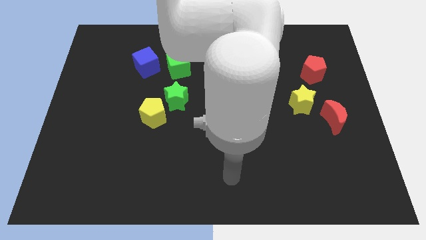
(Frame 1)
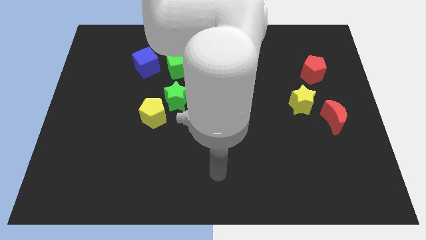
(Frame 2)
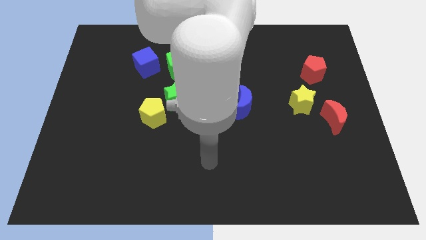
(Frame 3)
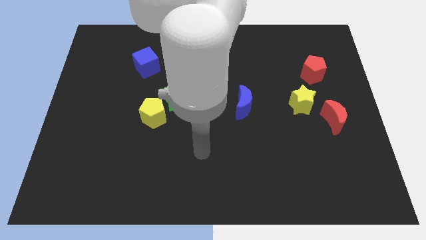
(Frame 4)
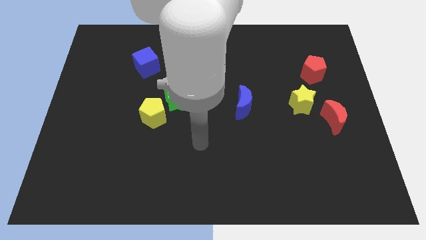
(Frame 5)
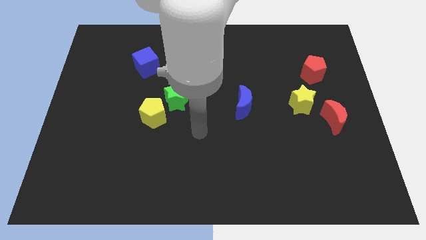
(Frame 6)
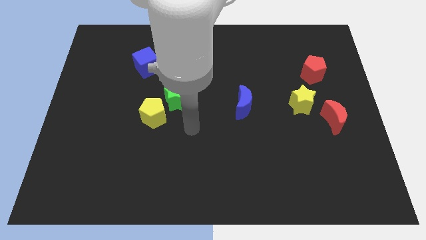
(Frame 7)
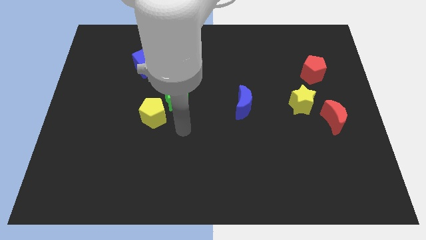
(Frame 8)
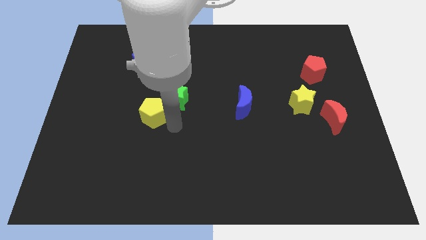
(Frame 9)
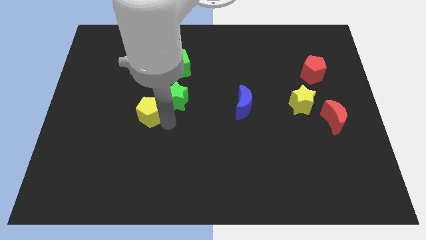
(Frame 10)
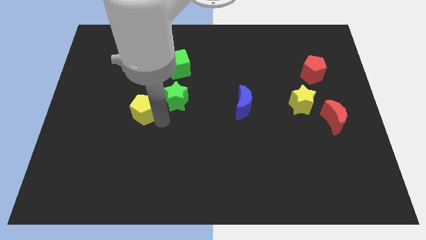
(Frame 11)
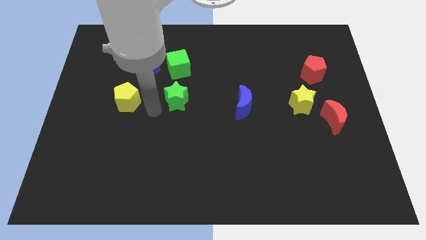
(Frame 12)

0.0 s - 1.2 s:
separate the green star from the yellow pentagon

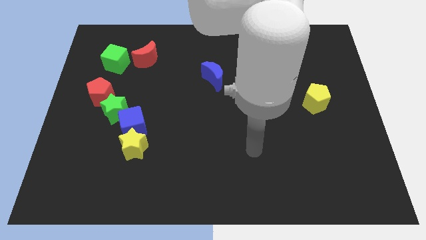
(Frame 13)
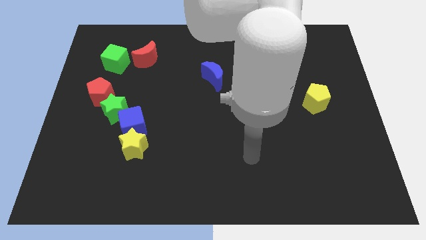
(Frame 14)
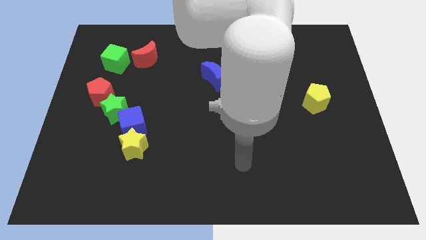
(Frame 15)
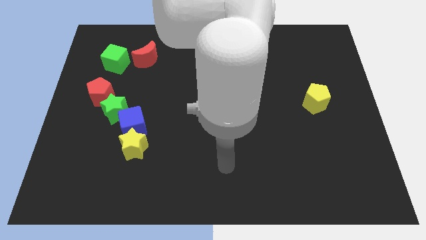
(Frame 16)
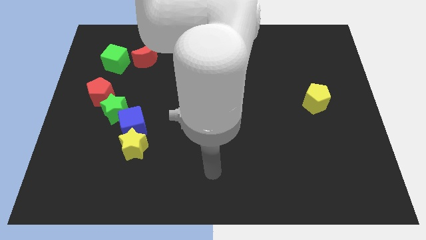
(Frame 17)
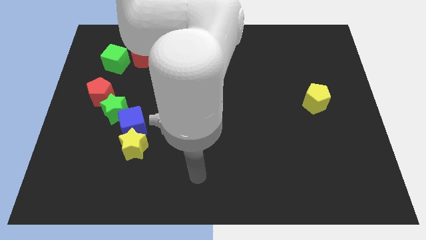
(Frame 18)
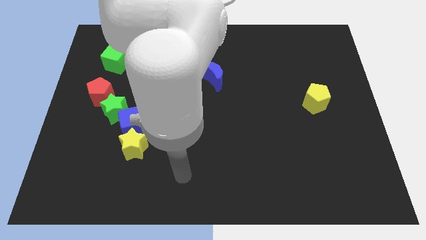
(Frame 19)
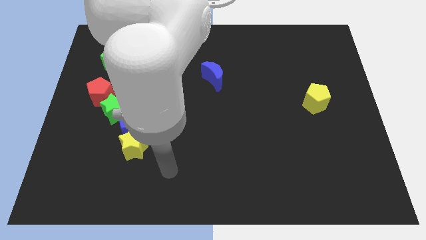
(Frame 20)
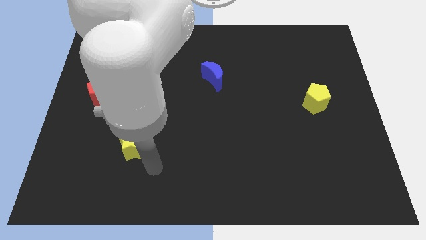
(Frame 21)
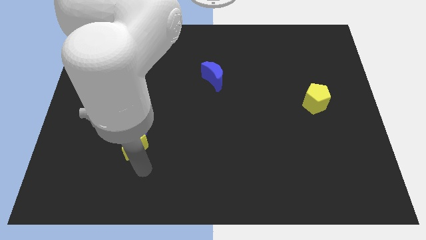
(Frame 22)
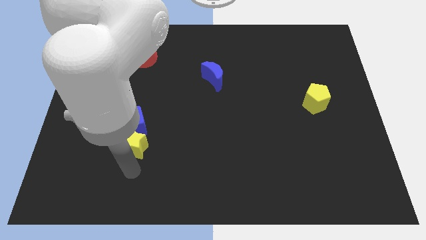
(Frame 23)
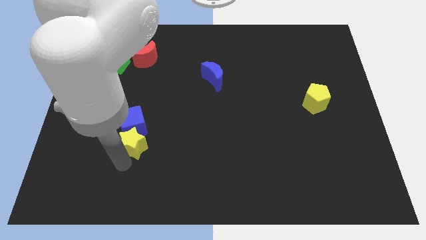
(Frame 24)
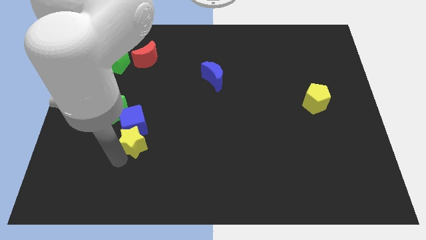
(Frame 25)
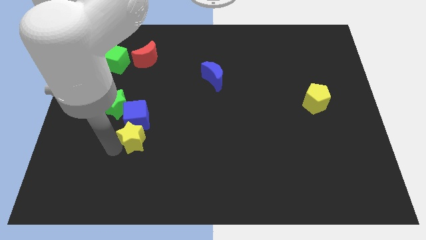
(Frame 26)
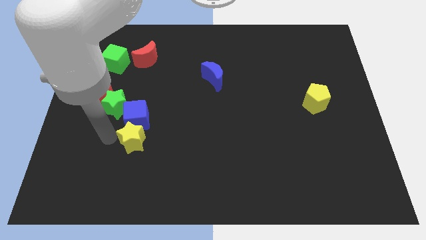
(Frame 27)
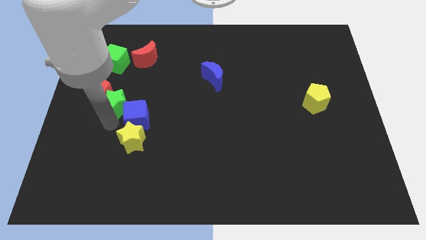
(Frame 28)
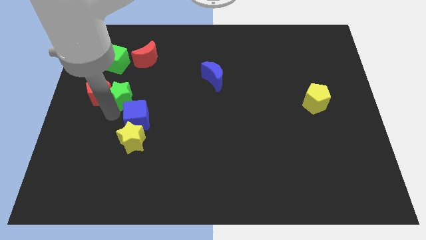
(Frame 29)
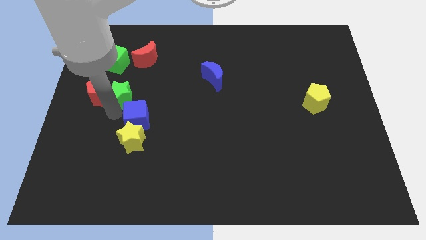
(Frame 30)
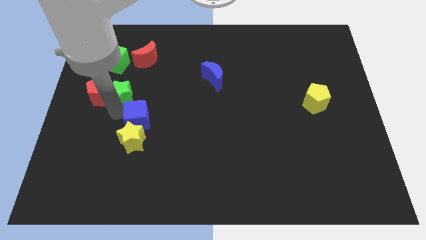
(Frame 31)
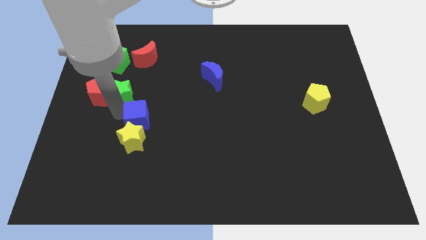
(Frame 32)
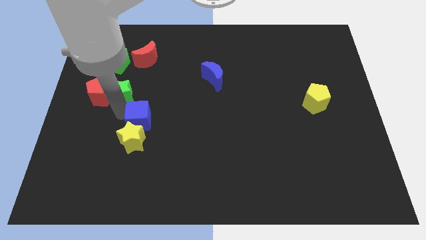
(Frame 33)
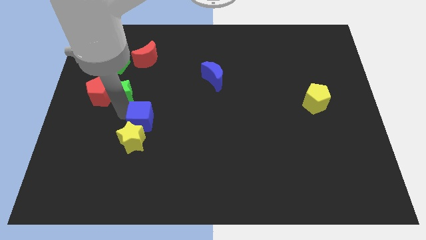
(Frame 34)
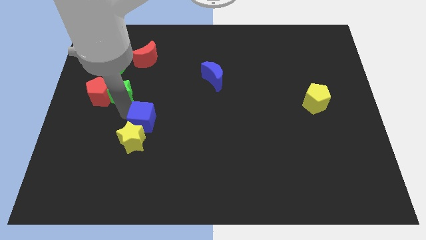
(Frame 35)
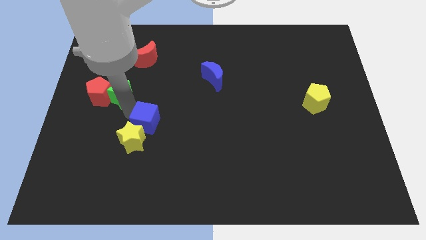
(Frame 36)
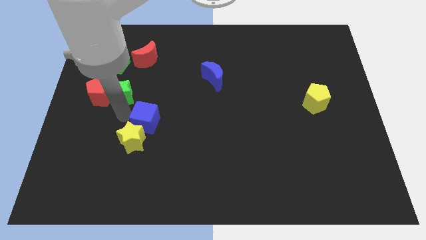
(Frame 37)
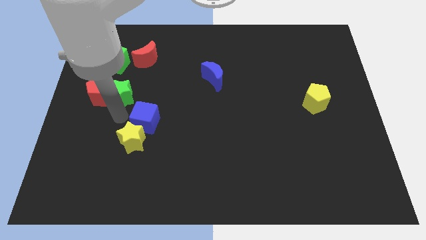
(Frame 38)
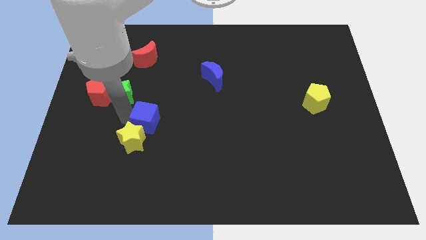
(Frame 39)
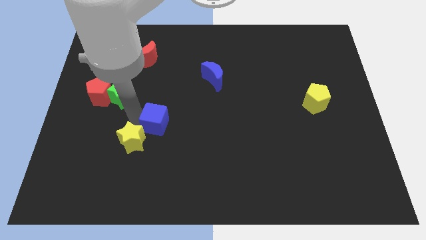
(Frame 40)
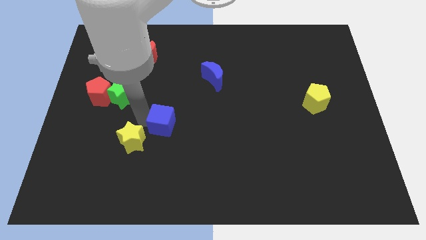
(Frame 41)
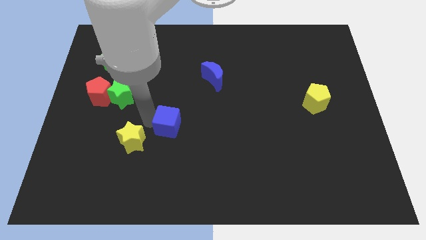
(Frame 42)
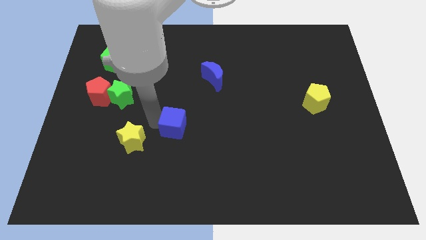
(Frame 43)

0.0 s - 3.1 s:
move the blue cube away from the green star and yellow star

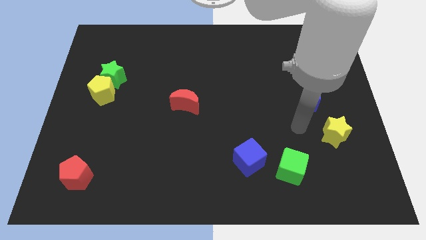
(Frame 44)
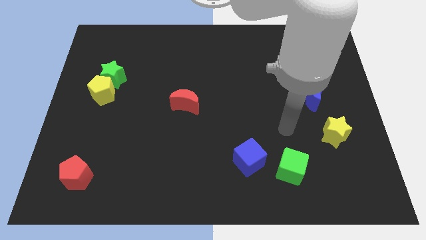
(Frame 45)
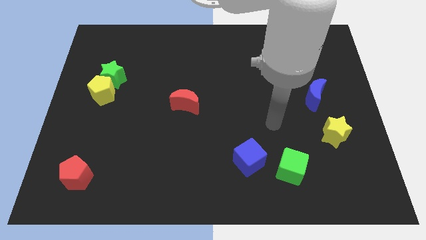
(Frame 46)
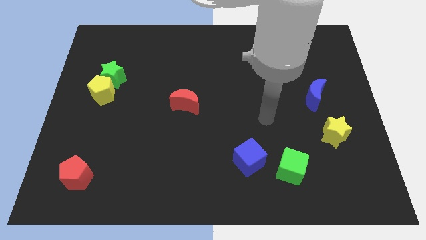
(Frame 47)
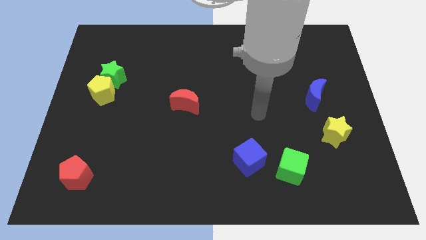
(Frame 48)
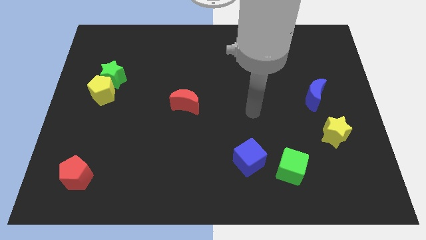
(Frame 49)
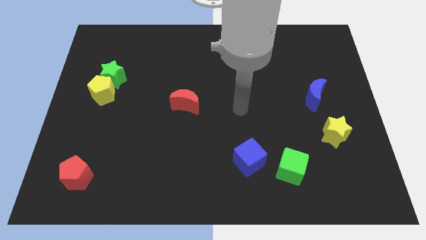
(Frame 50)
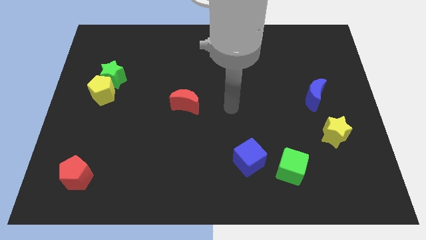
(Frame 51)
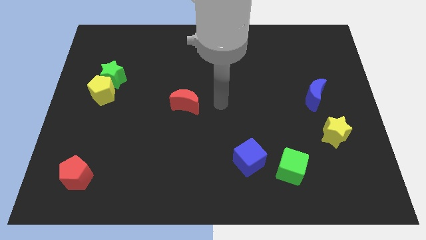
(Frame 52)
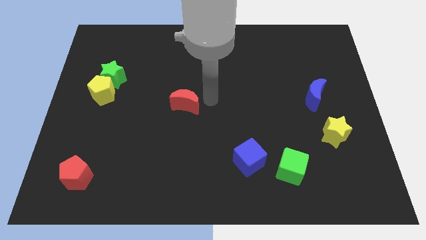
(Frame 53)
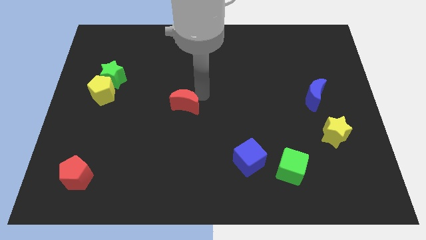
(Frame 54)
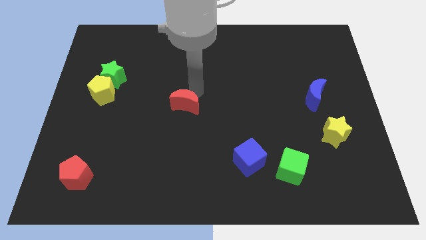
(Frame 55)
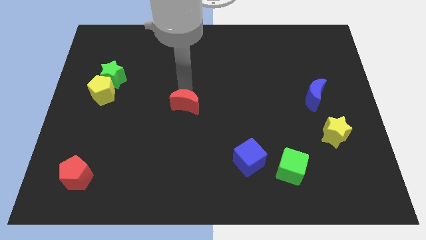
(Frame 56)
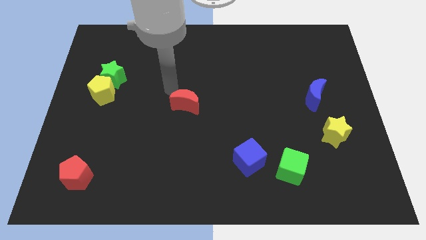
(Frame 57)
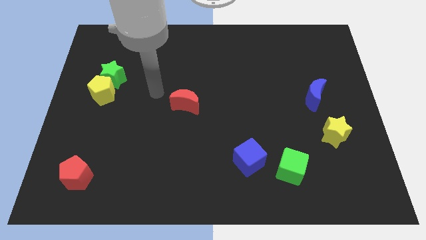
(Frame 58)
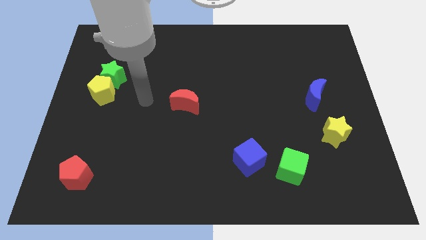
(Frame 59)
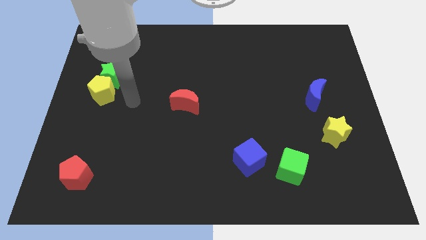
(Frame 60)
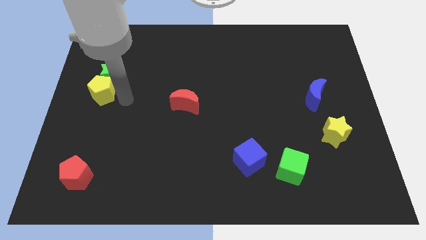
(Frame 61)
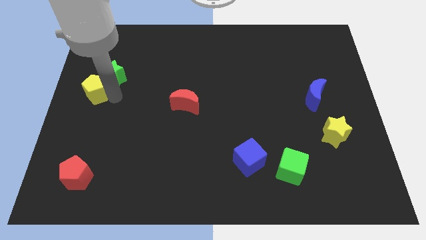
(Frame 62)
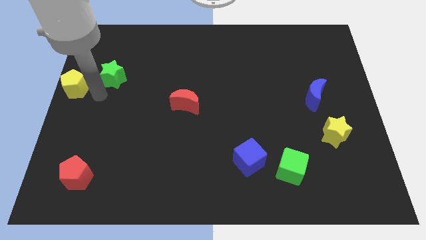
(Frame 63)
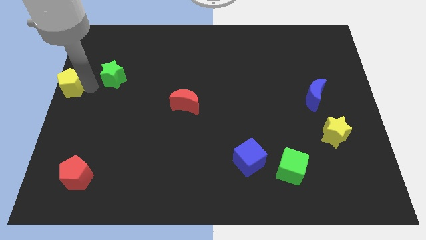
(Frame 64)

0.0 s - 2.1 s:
move the green star away from the yellow pentagon

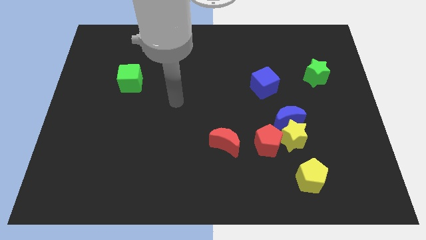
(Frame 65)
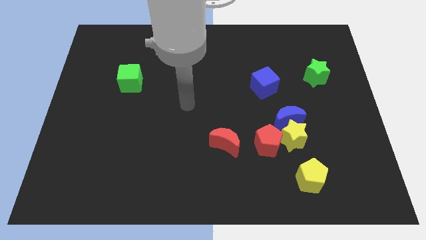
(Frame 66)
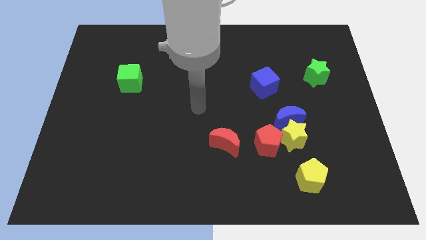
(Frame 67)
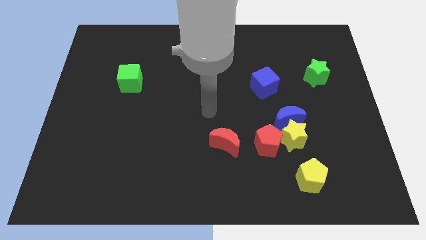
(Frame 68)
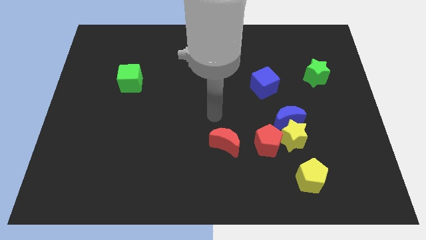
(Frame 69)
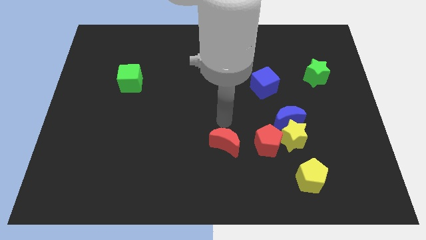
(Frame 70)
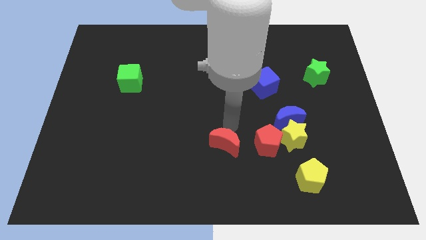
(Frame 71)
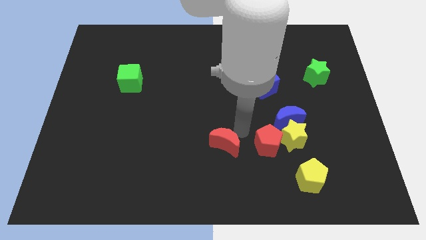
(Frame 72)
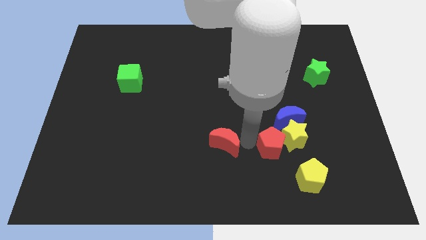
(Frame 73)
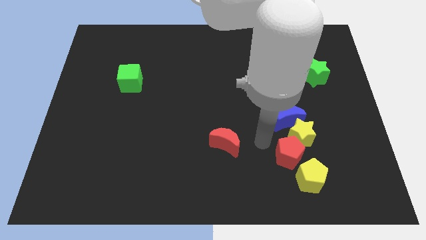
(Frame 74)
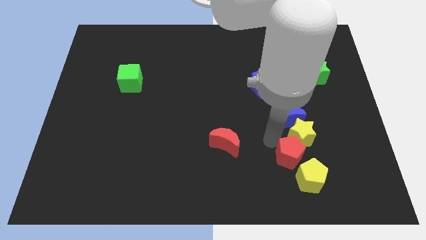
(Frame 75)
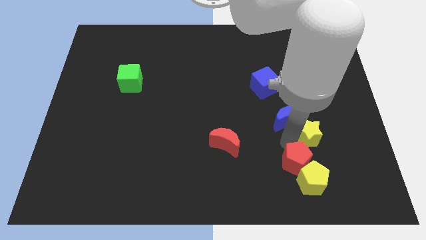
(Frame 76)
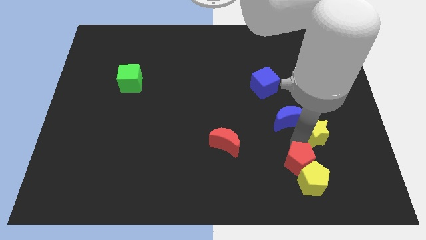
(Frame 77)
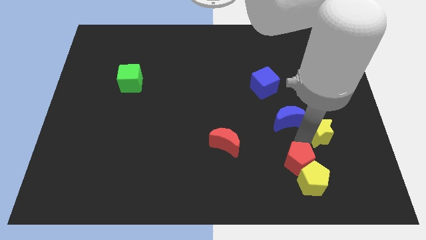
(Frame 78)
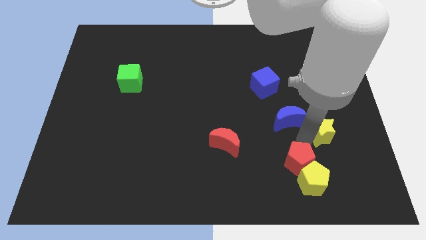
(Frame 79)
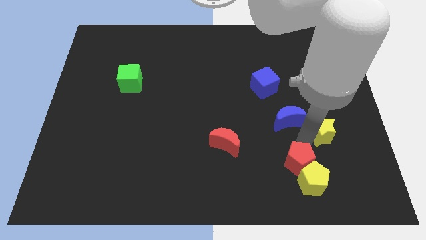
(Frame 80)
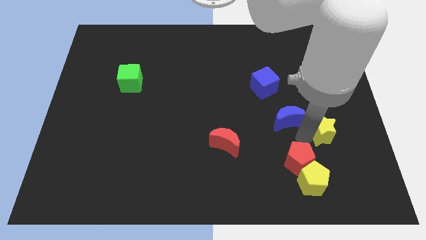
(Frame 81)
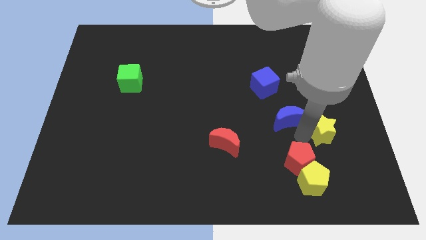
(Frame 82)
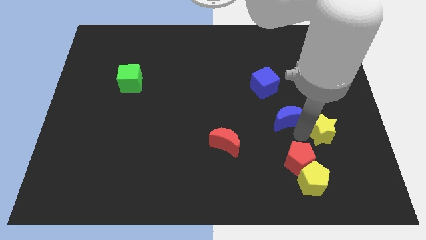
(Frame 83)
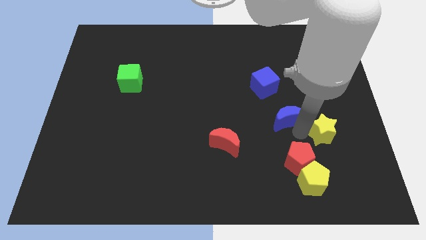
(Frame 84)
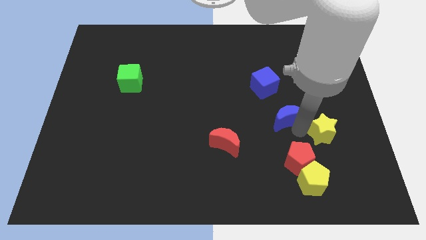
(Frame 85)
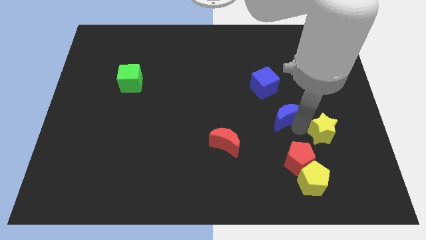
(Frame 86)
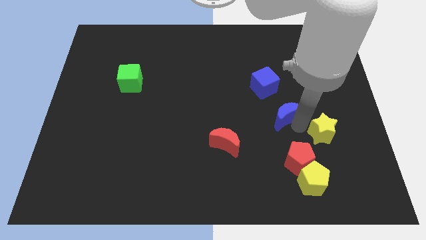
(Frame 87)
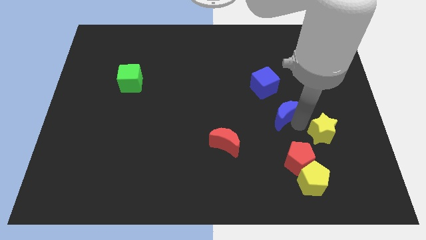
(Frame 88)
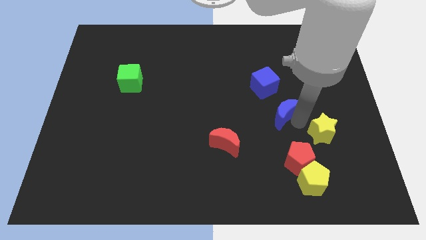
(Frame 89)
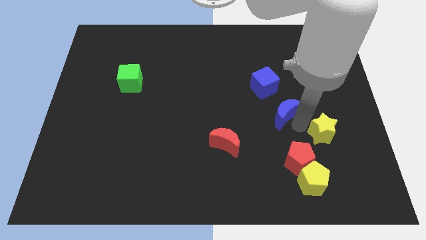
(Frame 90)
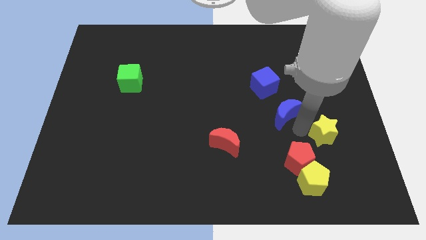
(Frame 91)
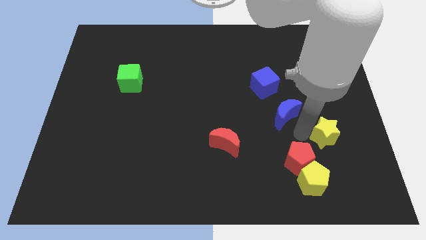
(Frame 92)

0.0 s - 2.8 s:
move the blue moon away from the yellow star and red pentagon

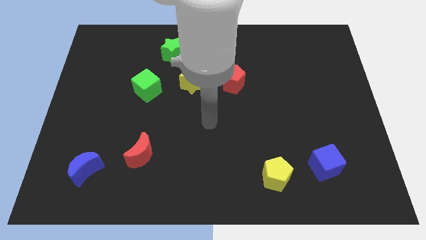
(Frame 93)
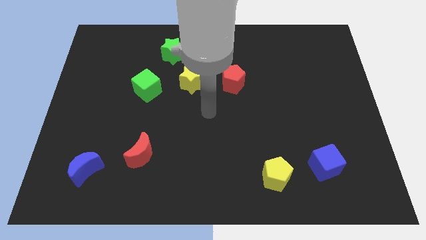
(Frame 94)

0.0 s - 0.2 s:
pull the red pentagon apart from the yellow star

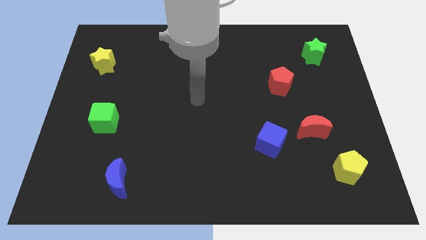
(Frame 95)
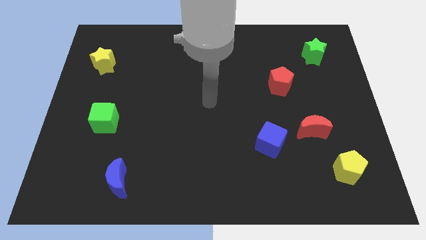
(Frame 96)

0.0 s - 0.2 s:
pull the red moon apart from the blue cube
